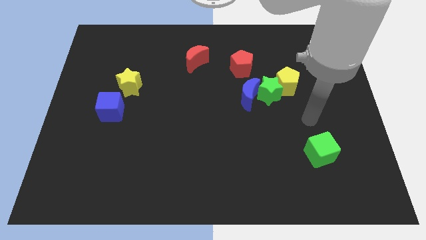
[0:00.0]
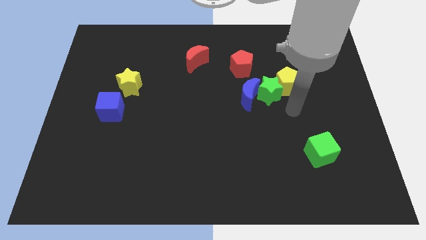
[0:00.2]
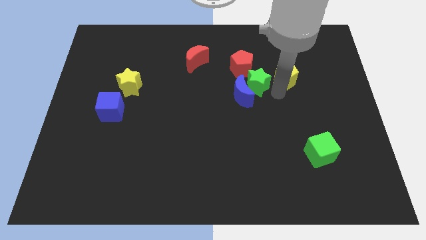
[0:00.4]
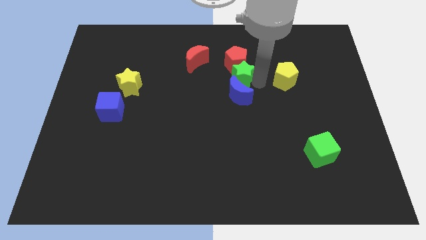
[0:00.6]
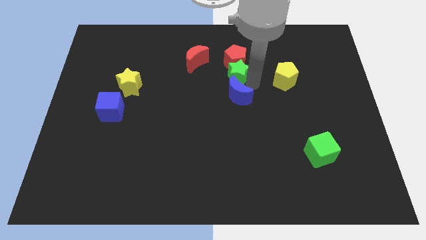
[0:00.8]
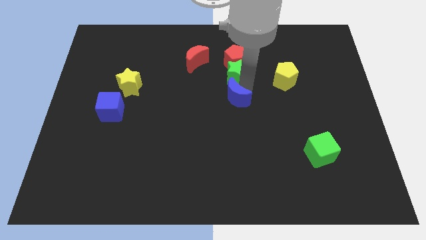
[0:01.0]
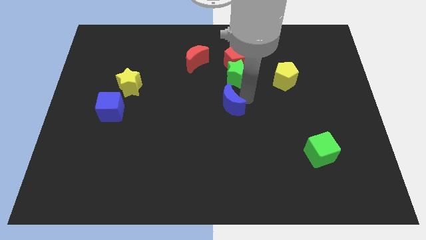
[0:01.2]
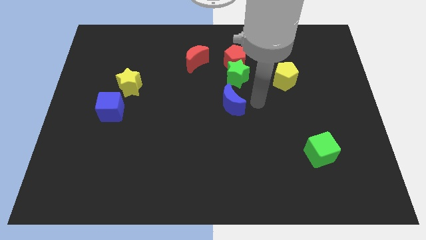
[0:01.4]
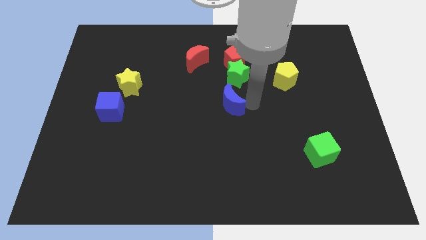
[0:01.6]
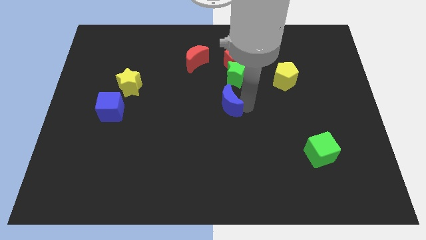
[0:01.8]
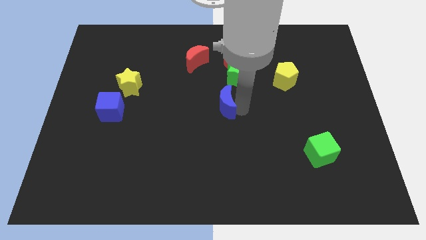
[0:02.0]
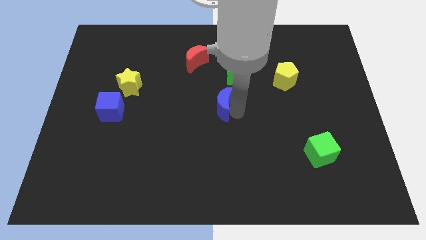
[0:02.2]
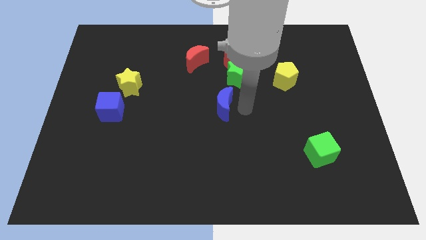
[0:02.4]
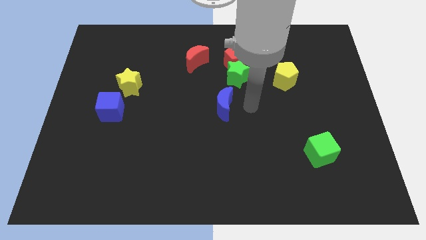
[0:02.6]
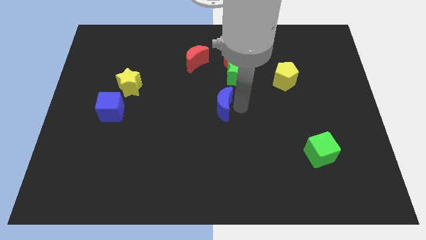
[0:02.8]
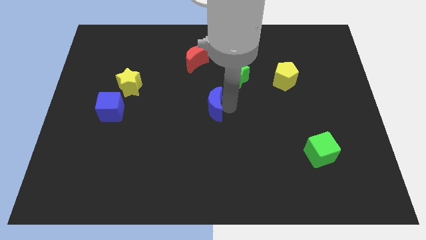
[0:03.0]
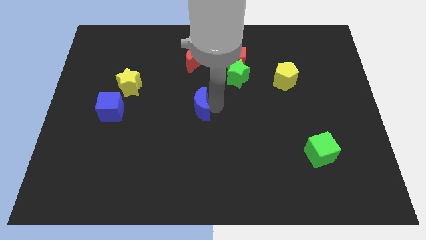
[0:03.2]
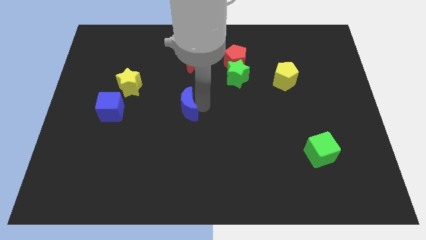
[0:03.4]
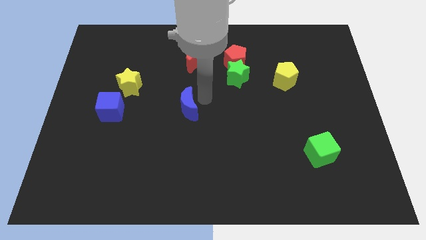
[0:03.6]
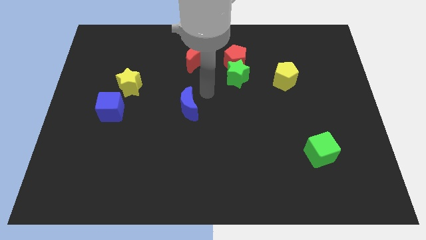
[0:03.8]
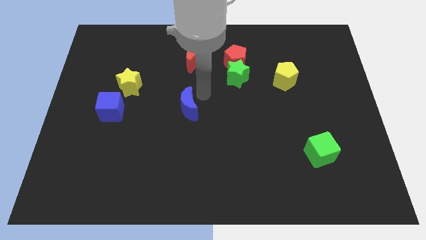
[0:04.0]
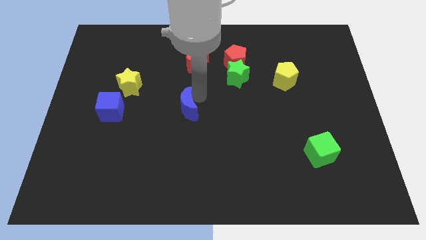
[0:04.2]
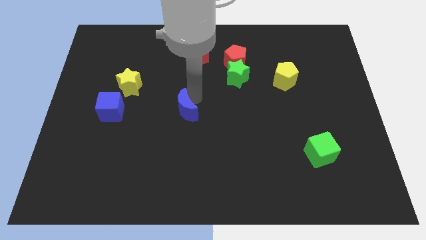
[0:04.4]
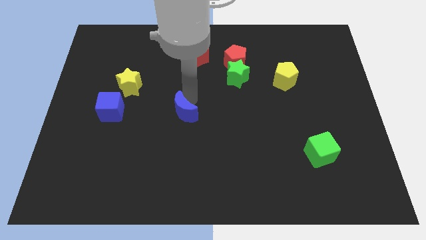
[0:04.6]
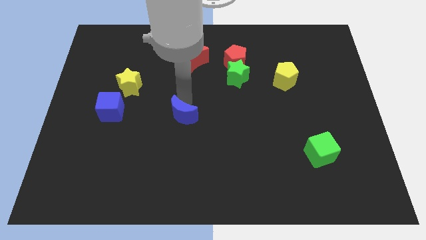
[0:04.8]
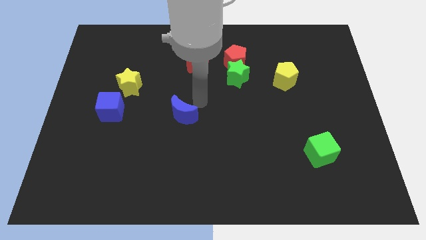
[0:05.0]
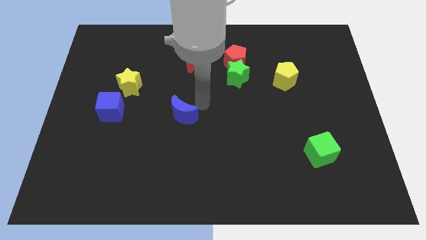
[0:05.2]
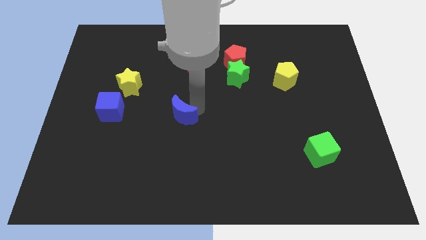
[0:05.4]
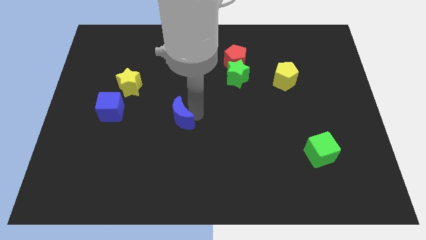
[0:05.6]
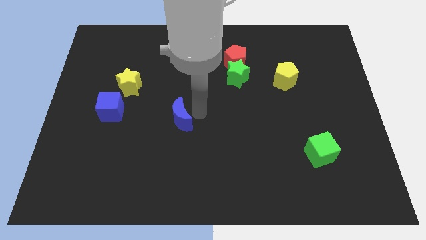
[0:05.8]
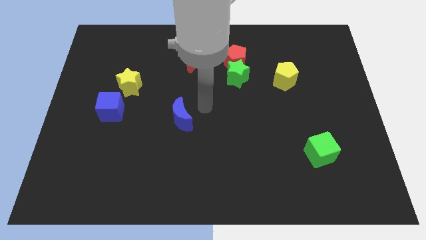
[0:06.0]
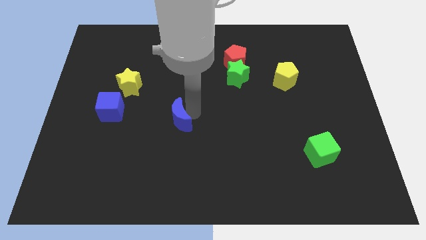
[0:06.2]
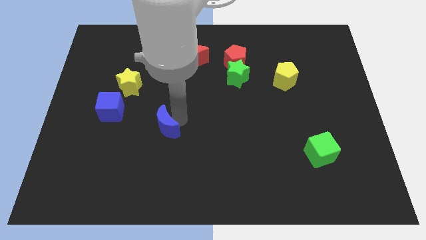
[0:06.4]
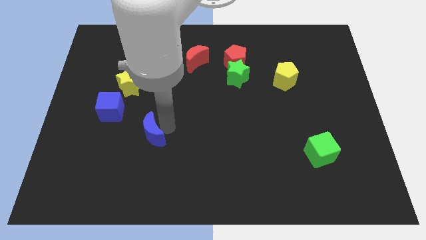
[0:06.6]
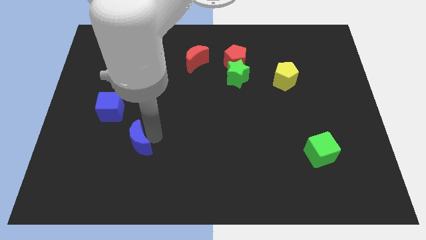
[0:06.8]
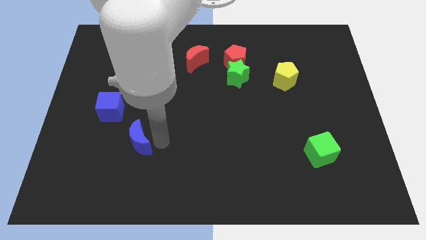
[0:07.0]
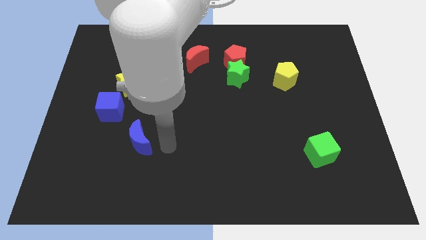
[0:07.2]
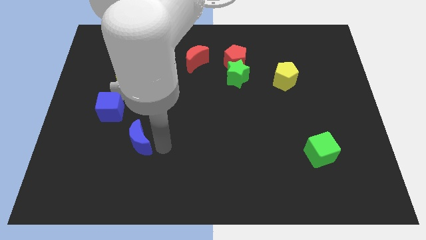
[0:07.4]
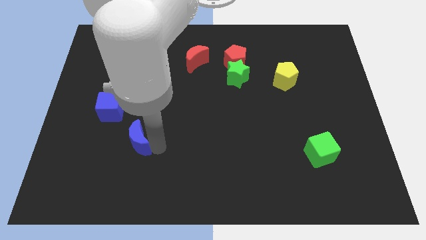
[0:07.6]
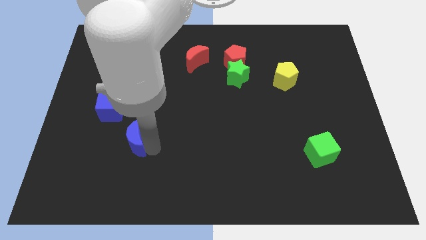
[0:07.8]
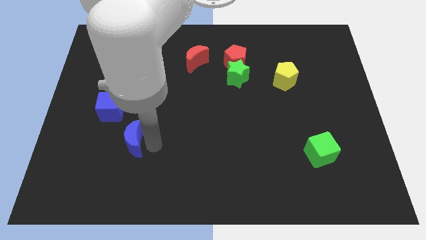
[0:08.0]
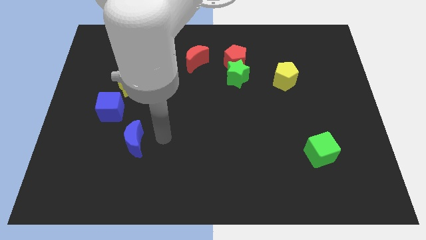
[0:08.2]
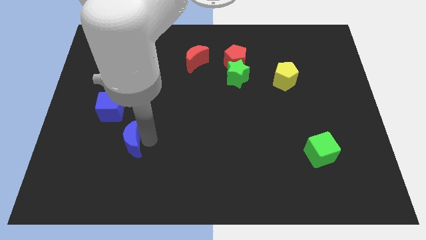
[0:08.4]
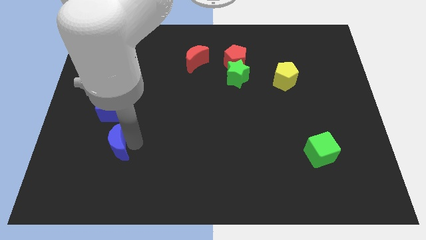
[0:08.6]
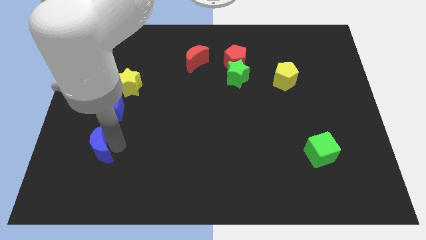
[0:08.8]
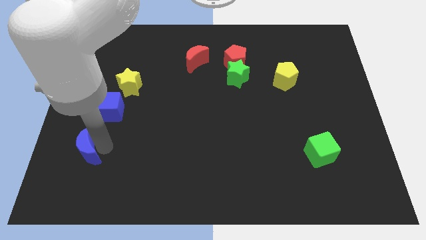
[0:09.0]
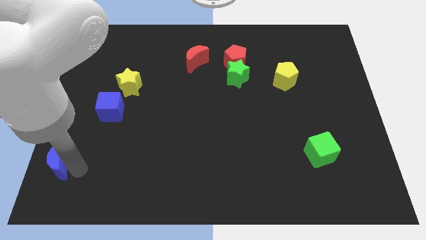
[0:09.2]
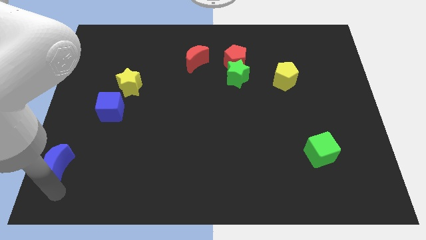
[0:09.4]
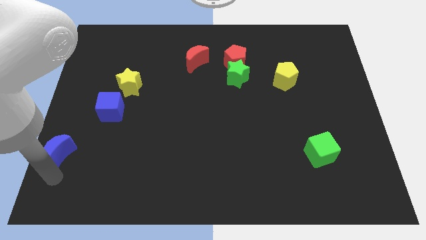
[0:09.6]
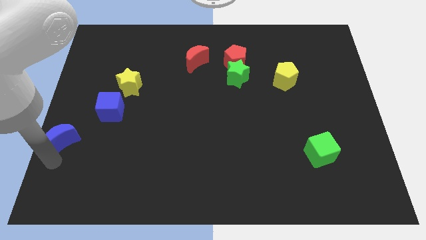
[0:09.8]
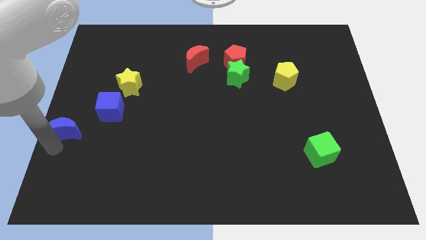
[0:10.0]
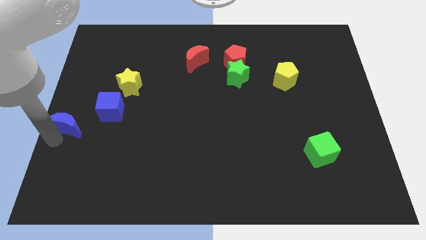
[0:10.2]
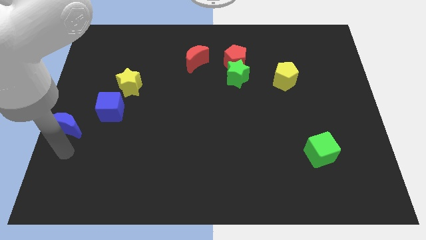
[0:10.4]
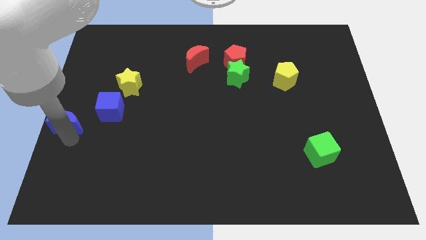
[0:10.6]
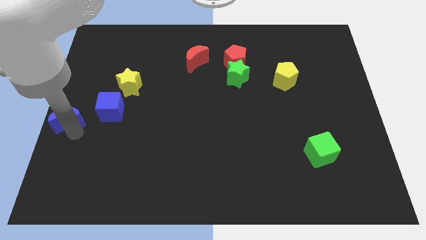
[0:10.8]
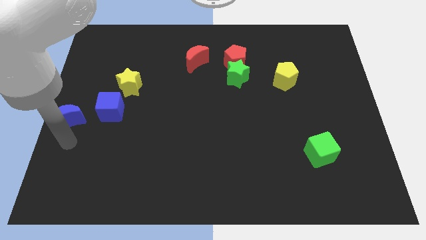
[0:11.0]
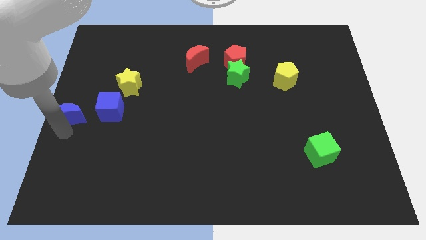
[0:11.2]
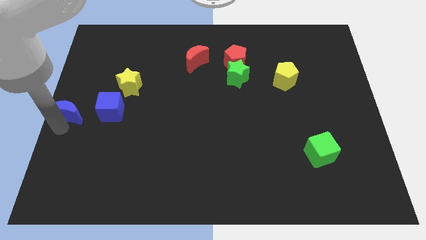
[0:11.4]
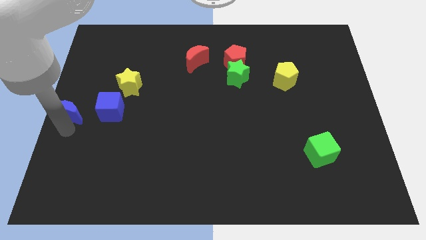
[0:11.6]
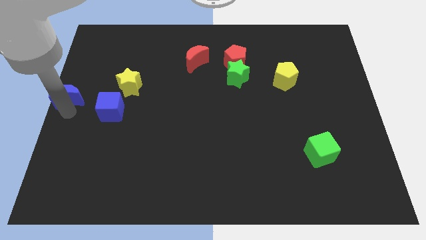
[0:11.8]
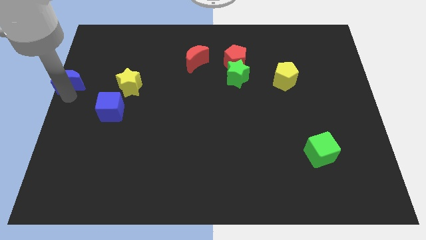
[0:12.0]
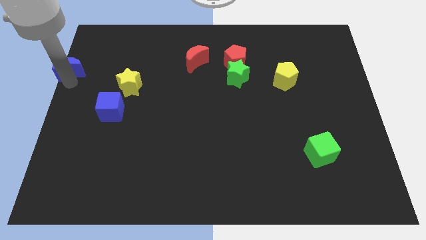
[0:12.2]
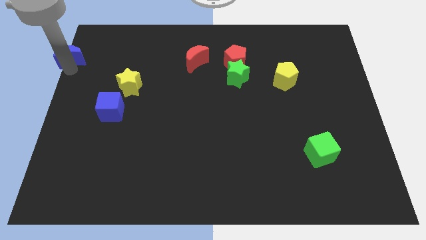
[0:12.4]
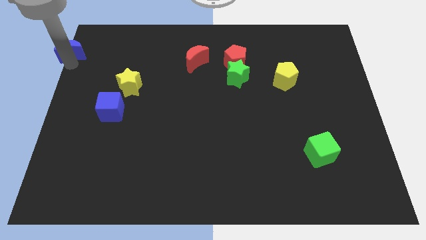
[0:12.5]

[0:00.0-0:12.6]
move the blue moon to the top left of the board
